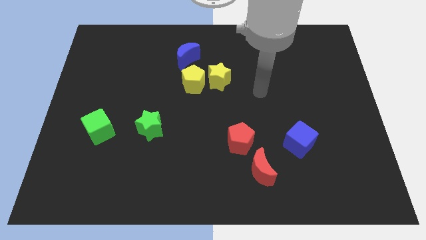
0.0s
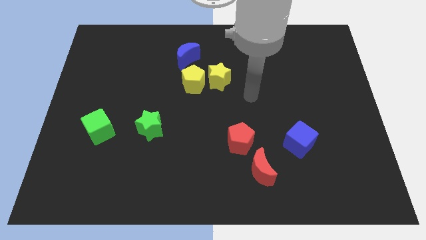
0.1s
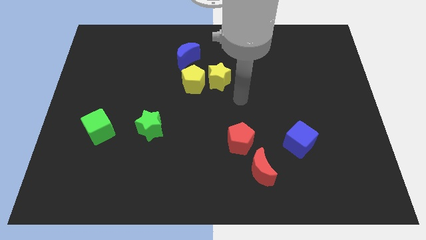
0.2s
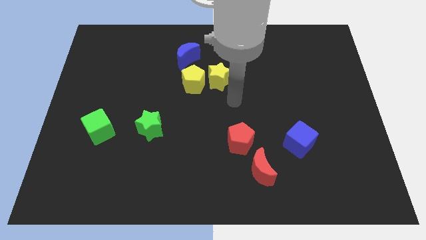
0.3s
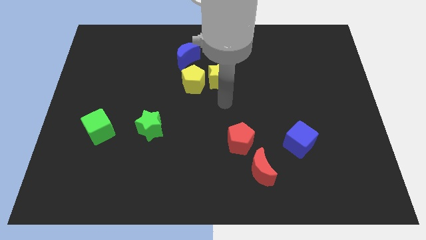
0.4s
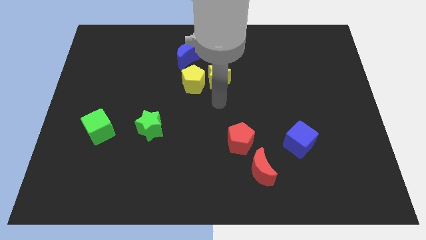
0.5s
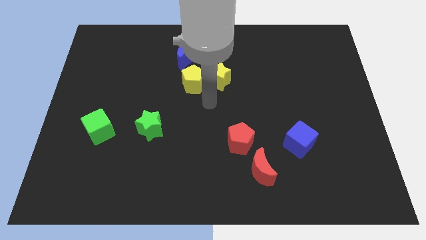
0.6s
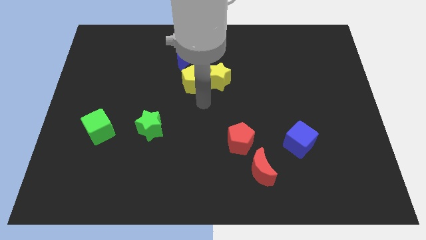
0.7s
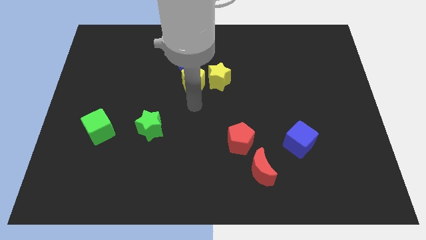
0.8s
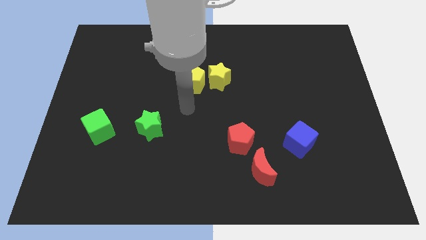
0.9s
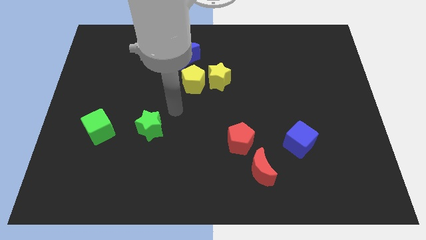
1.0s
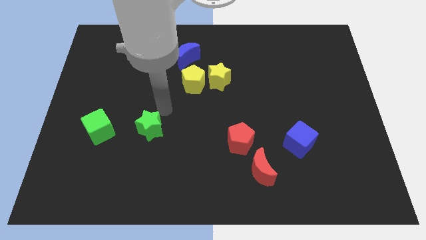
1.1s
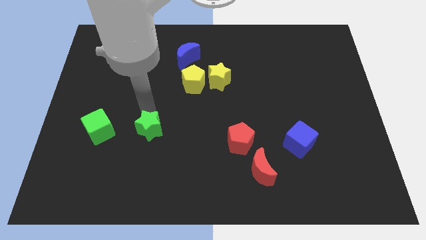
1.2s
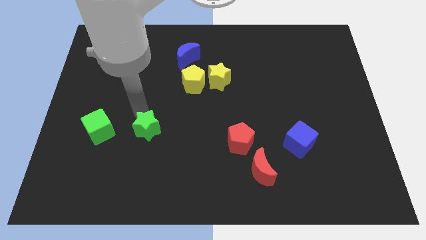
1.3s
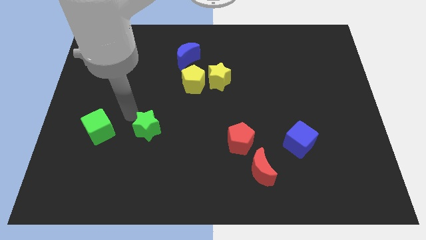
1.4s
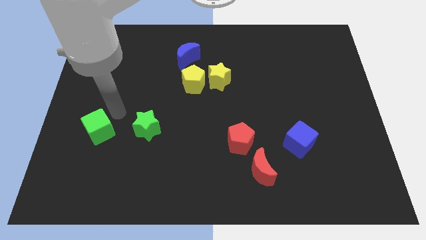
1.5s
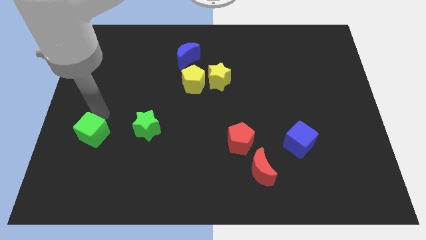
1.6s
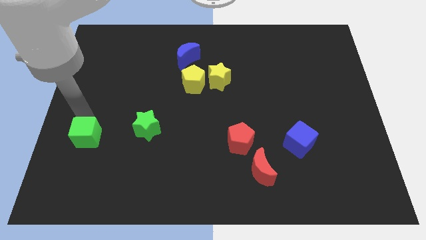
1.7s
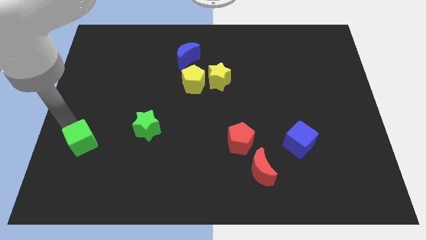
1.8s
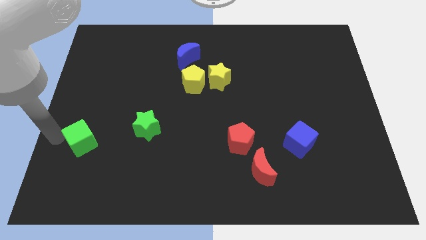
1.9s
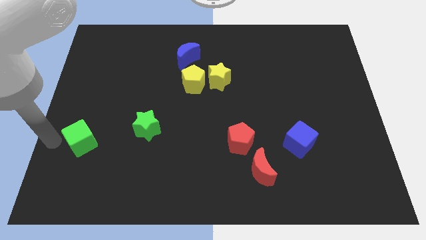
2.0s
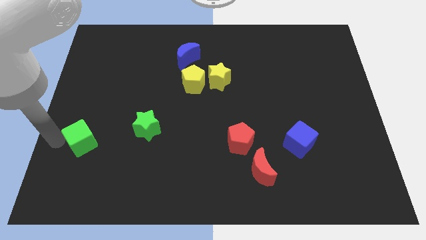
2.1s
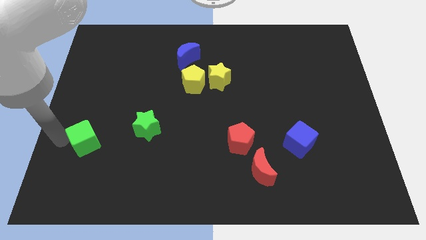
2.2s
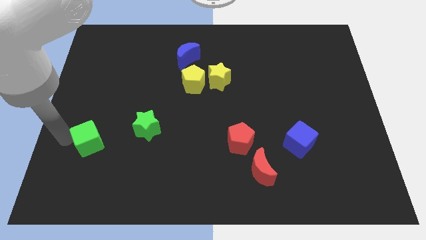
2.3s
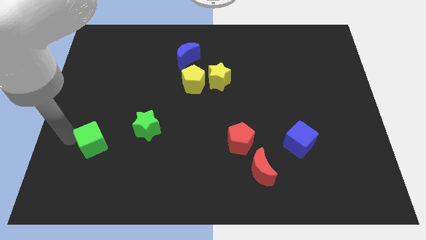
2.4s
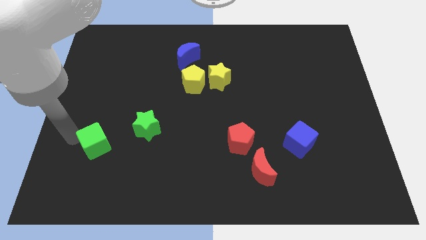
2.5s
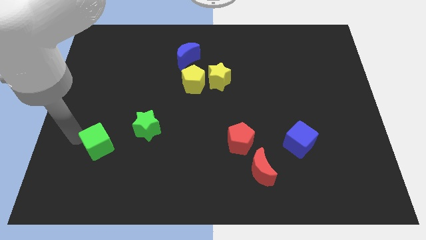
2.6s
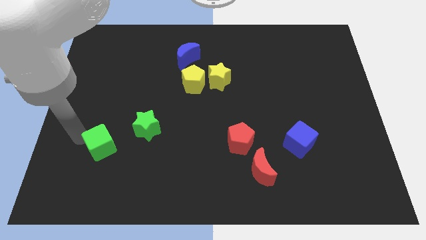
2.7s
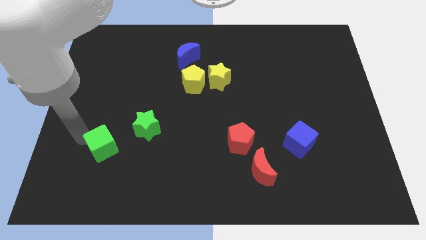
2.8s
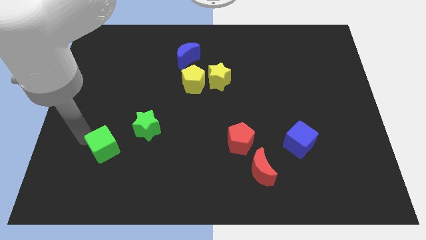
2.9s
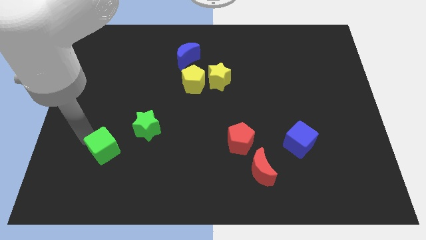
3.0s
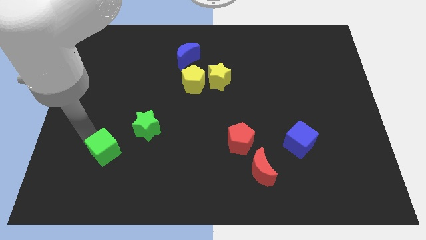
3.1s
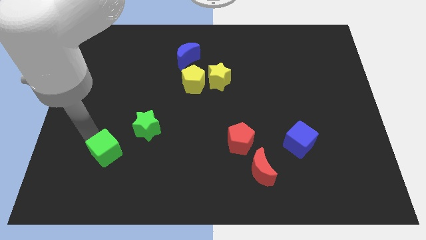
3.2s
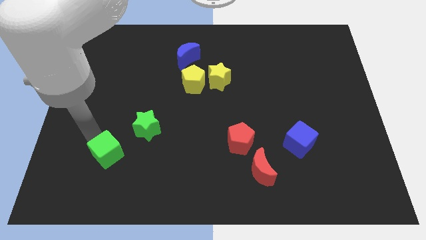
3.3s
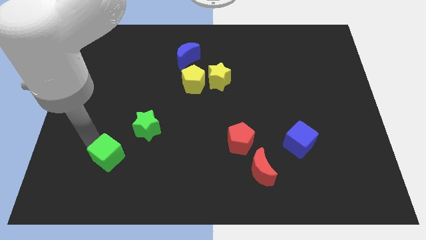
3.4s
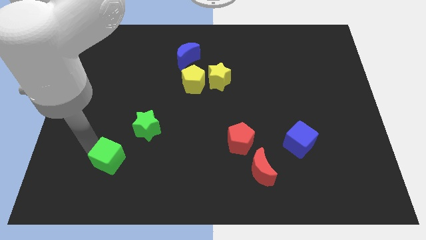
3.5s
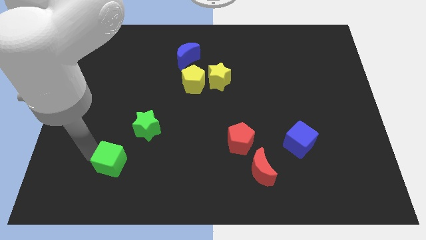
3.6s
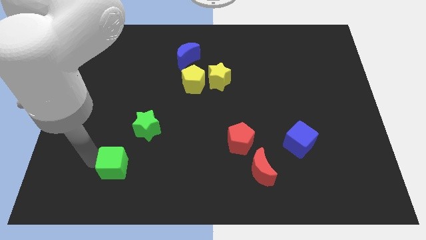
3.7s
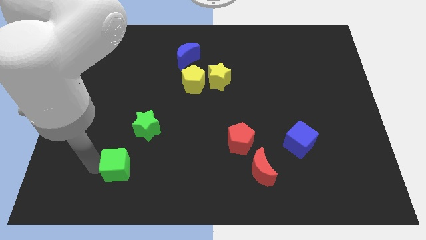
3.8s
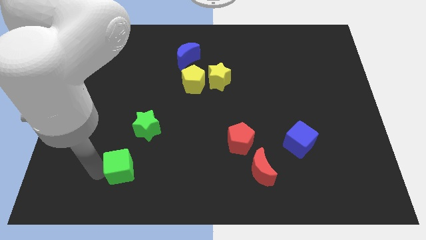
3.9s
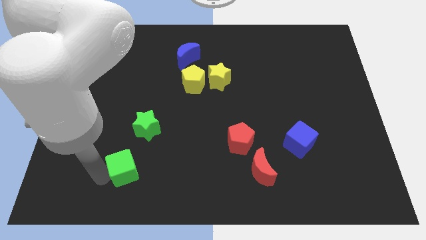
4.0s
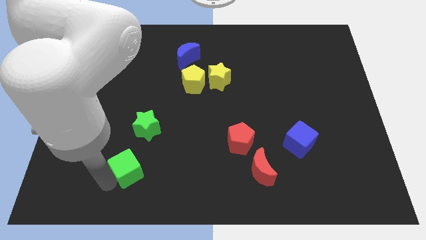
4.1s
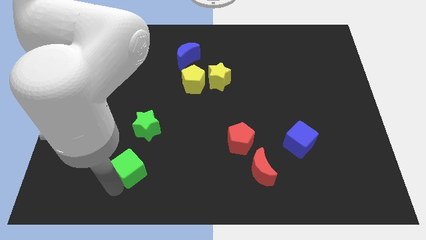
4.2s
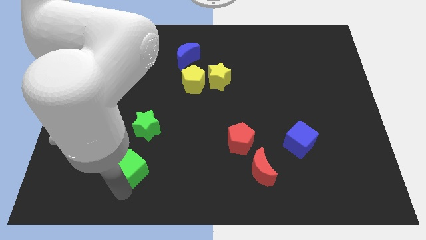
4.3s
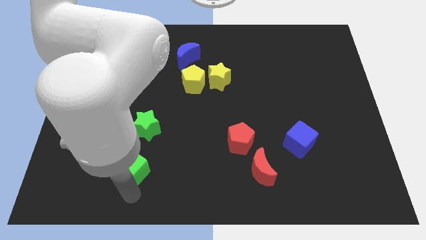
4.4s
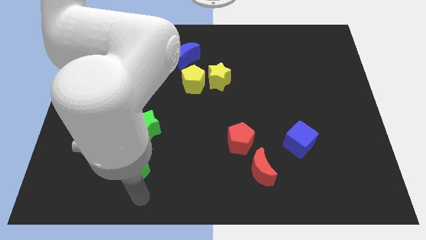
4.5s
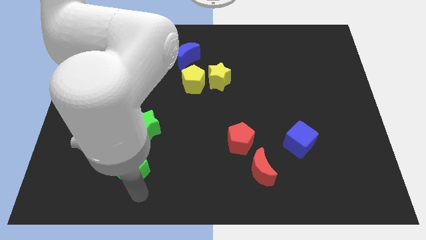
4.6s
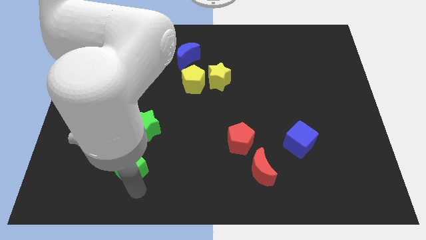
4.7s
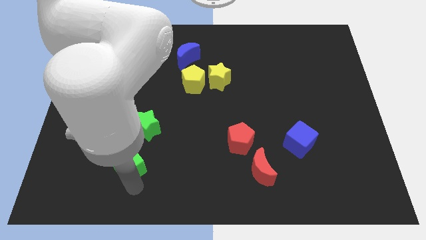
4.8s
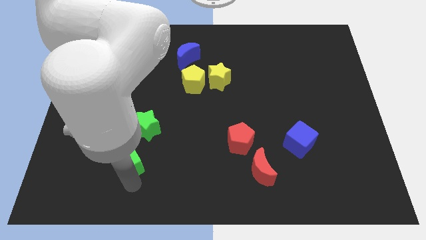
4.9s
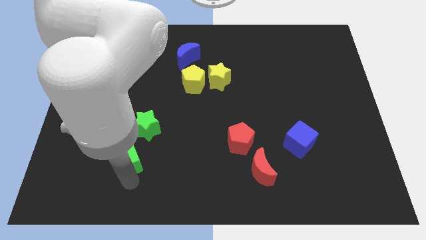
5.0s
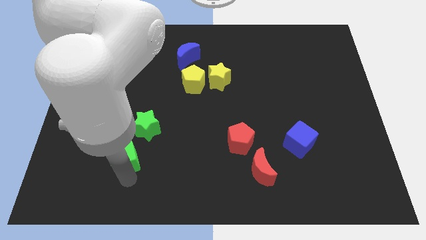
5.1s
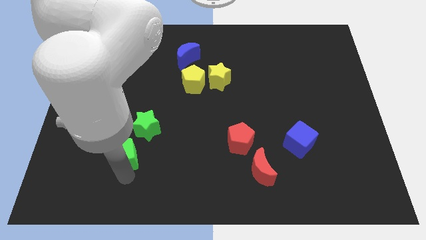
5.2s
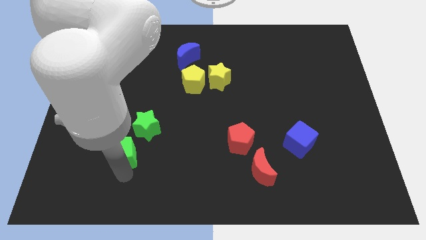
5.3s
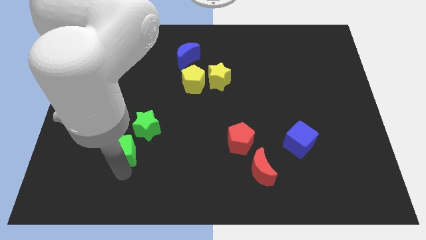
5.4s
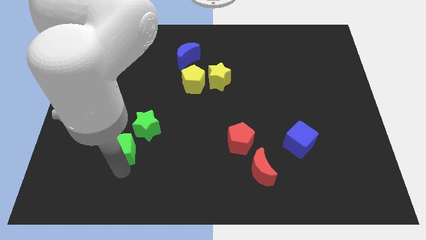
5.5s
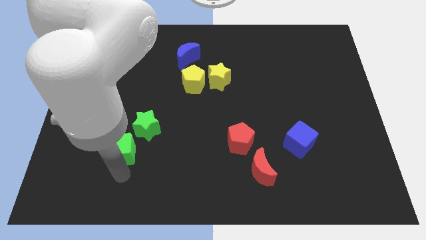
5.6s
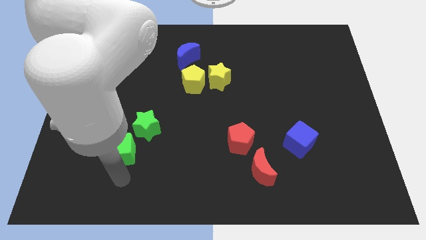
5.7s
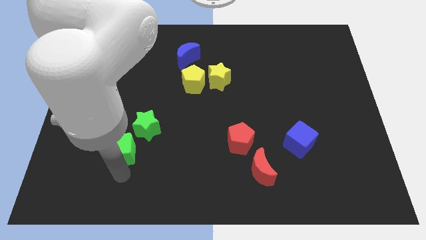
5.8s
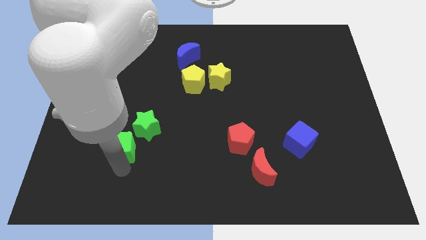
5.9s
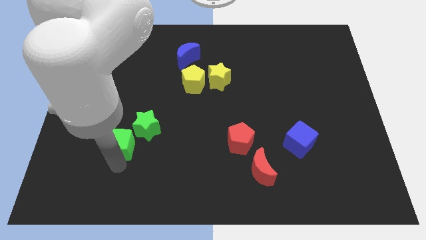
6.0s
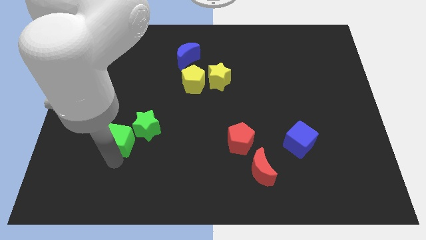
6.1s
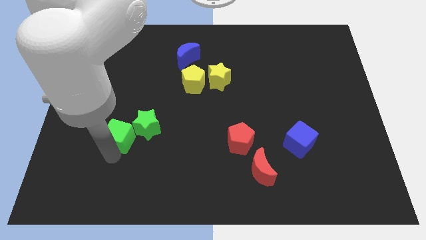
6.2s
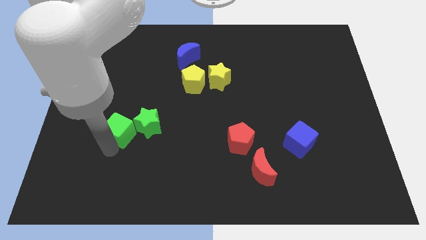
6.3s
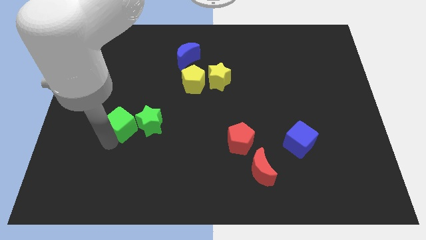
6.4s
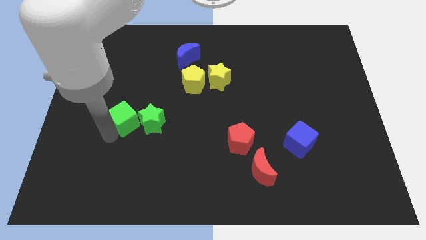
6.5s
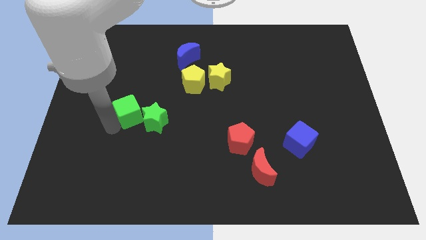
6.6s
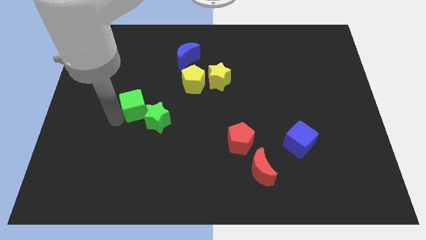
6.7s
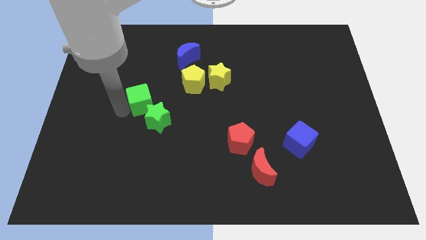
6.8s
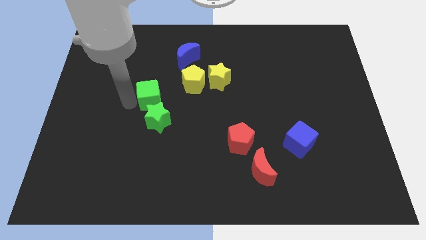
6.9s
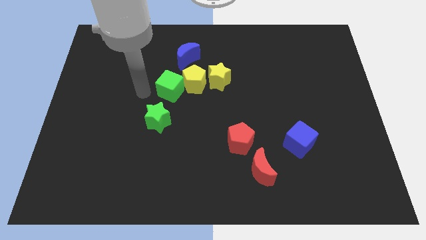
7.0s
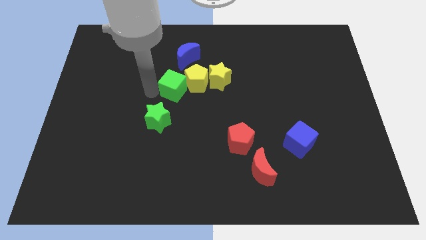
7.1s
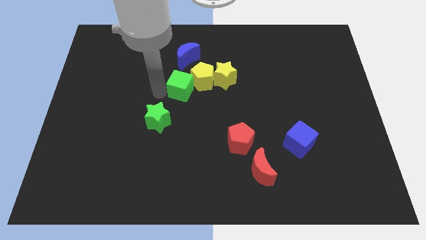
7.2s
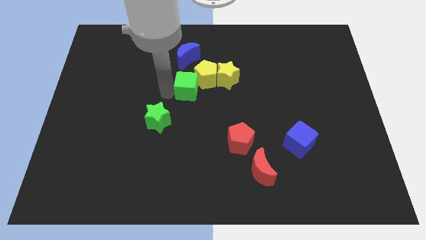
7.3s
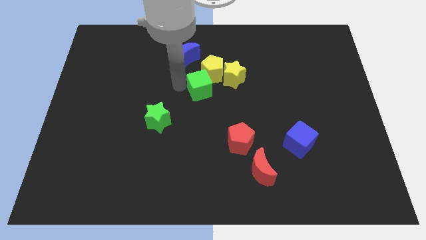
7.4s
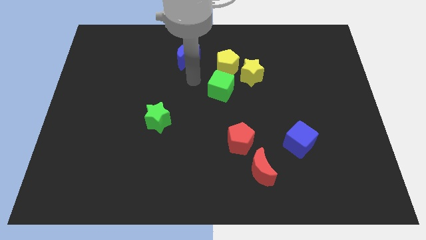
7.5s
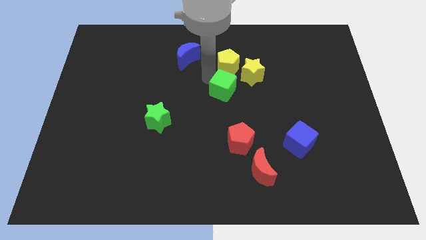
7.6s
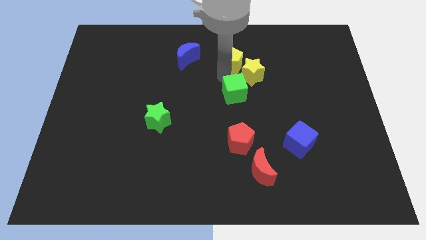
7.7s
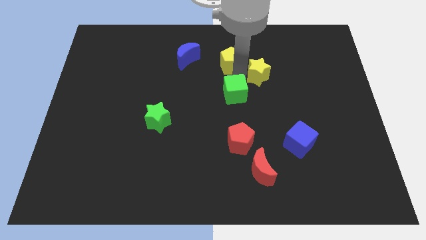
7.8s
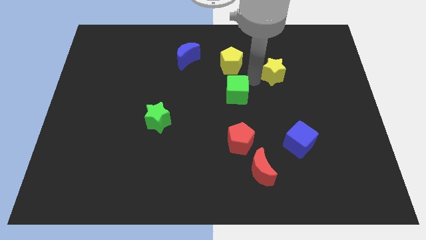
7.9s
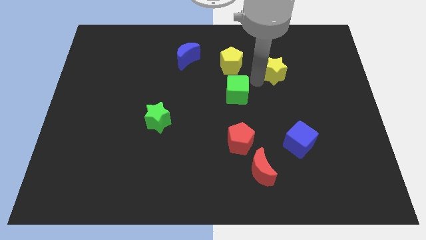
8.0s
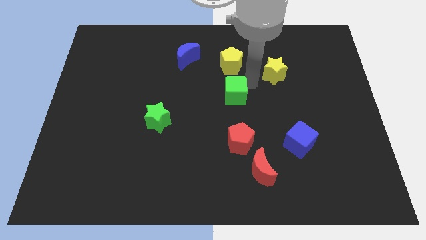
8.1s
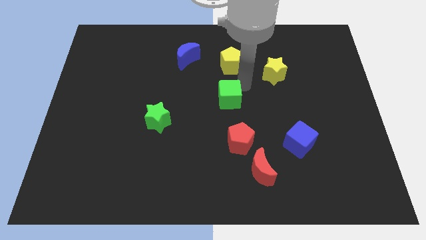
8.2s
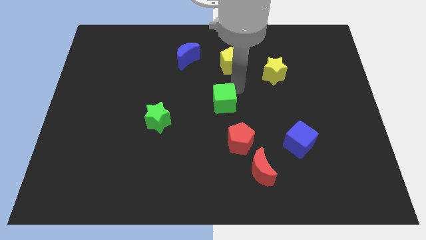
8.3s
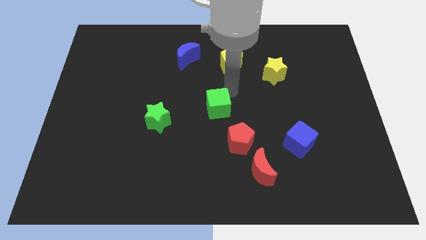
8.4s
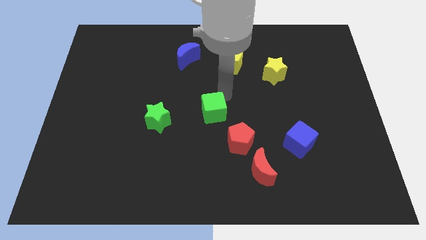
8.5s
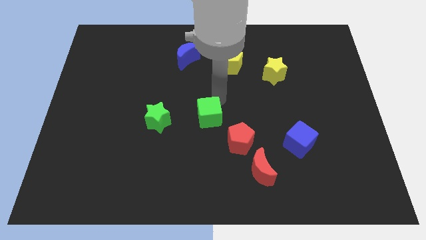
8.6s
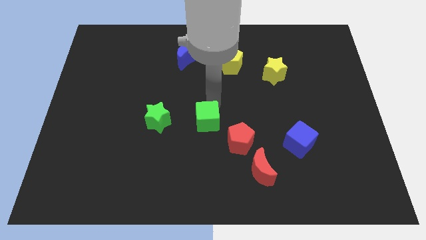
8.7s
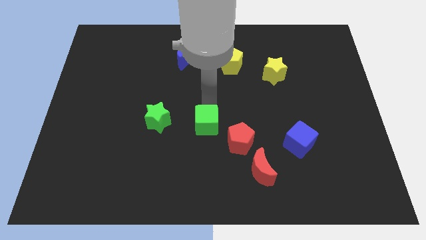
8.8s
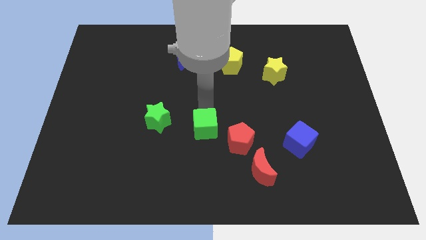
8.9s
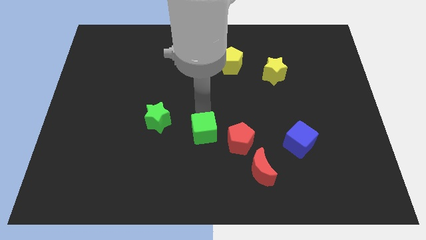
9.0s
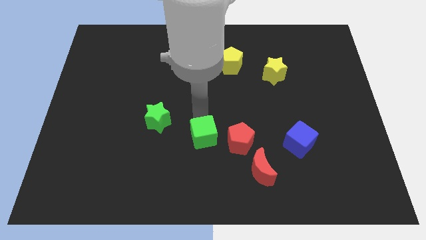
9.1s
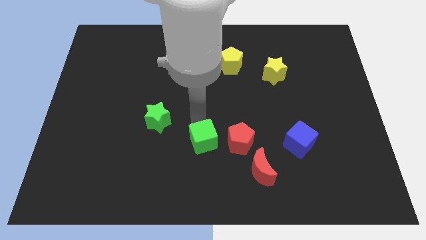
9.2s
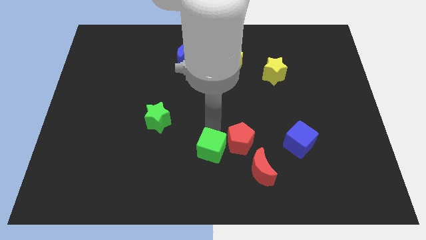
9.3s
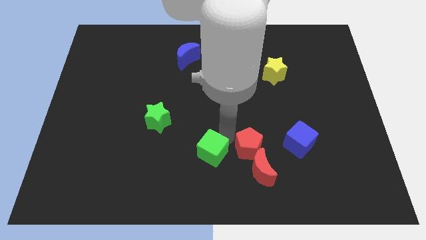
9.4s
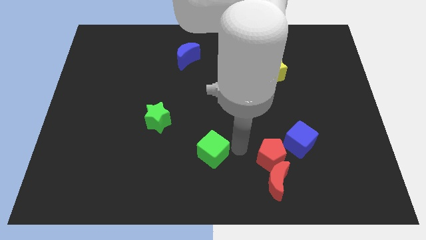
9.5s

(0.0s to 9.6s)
put the green cube to the bottom
